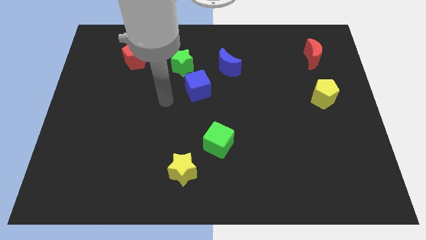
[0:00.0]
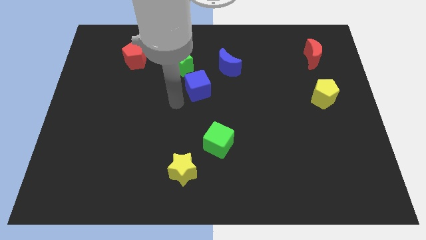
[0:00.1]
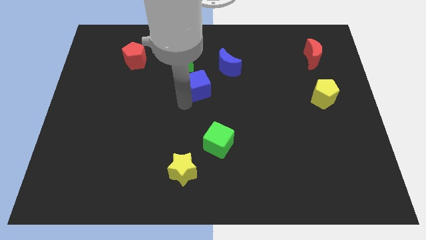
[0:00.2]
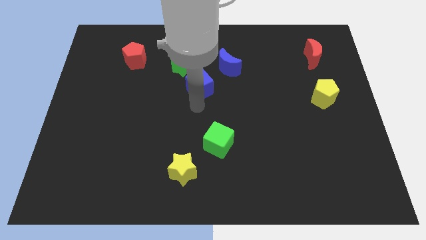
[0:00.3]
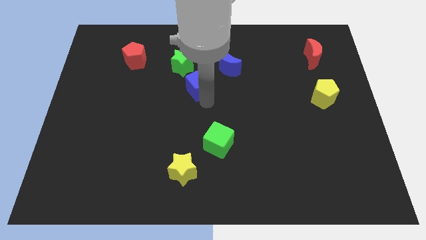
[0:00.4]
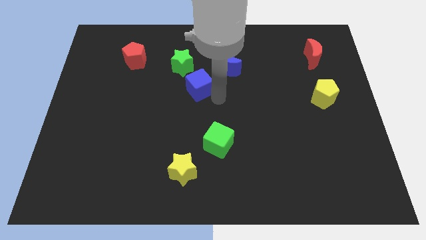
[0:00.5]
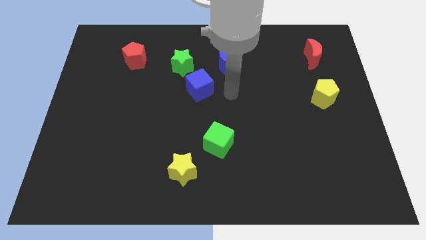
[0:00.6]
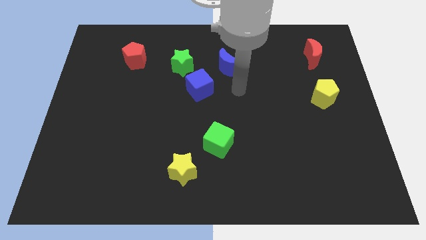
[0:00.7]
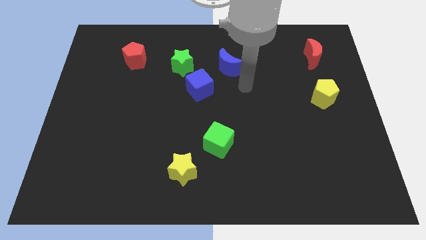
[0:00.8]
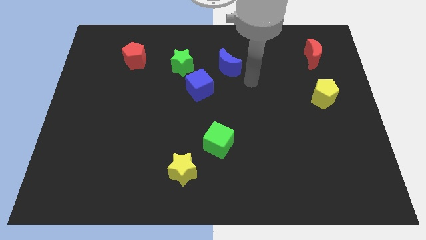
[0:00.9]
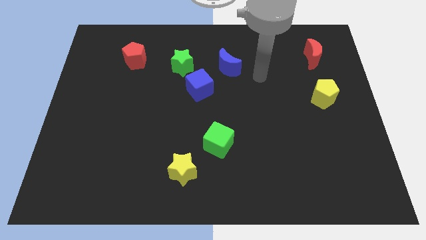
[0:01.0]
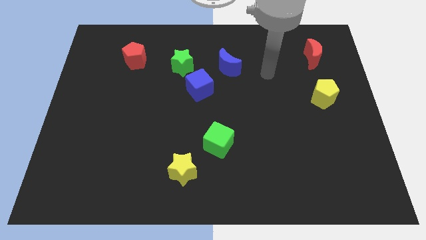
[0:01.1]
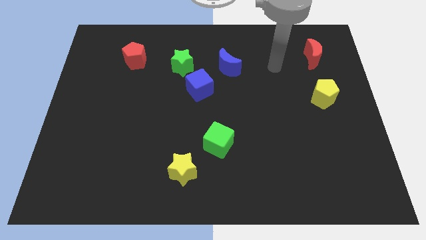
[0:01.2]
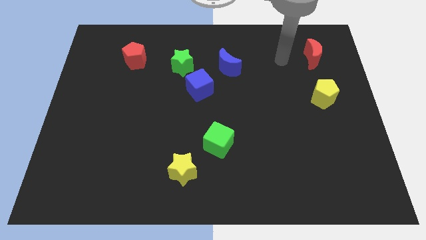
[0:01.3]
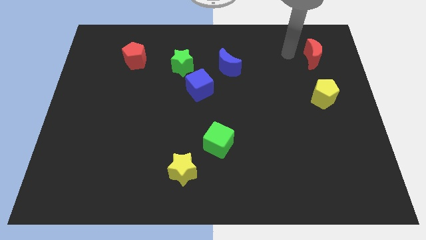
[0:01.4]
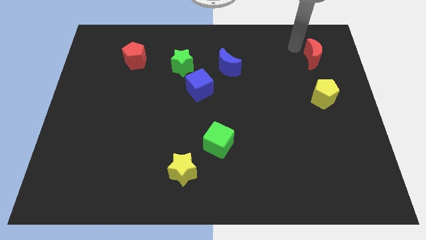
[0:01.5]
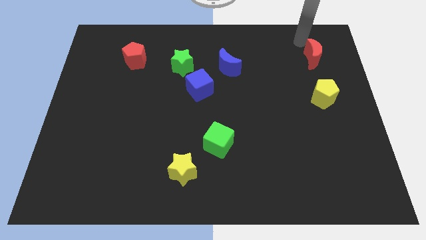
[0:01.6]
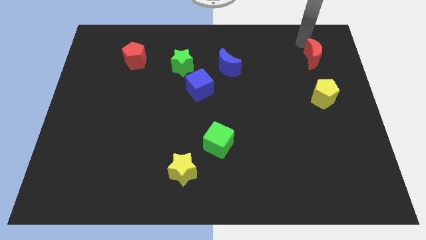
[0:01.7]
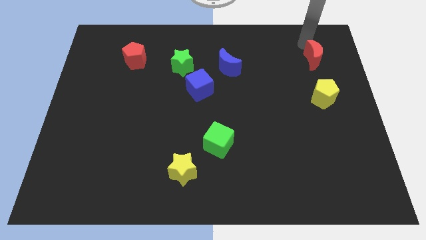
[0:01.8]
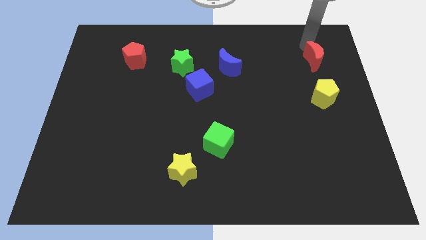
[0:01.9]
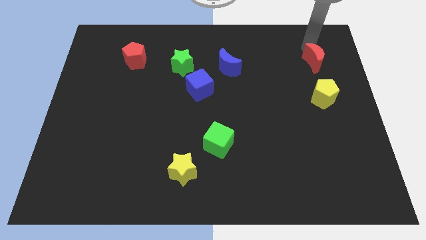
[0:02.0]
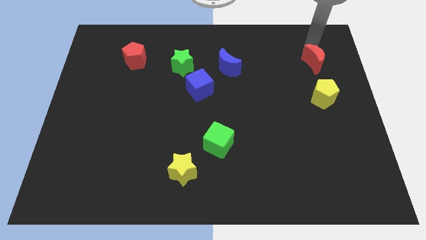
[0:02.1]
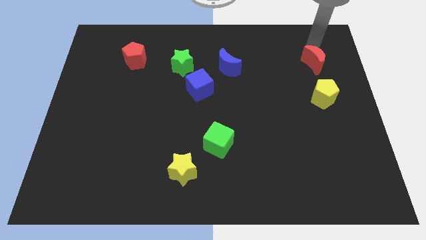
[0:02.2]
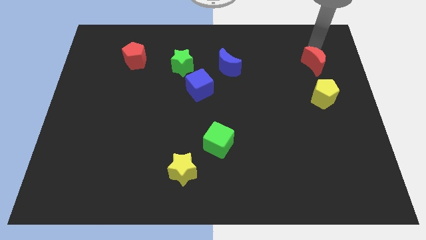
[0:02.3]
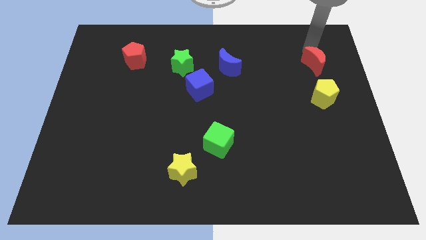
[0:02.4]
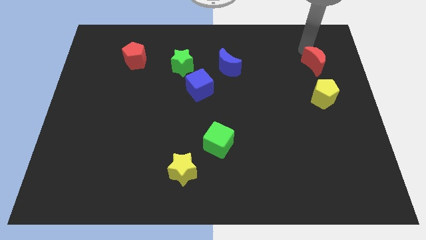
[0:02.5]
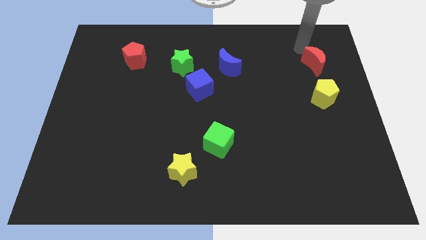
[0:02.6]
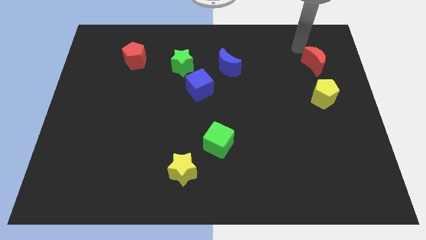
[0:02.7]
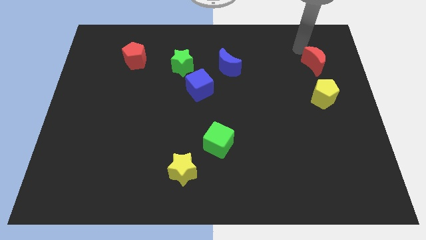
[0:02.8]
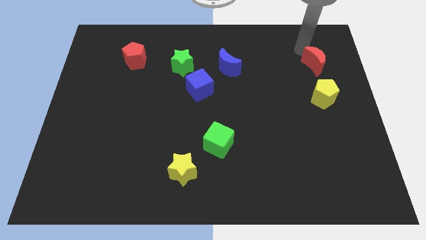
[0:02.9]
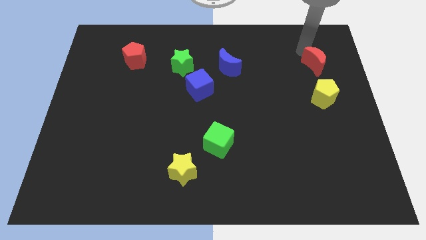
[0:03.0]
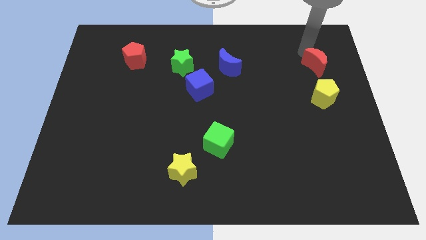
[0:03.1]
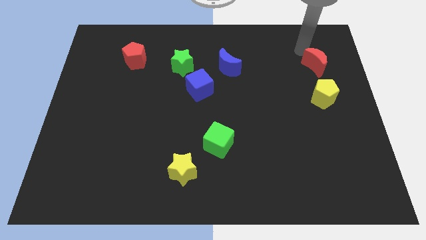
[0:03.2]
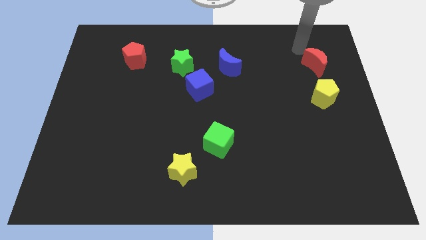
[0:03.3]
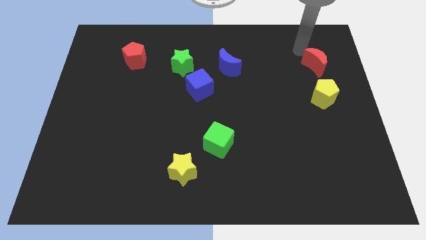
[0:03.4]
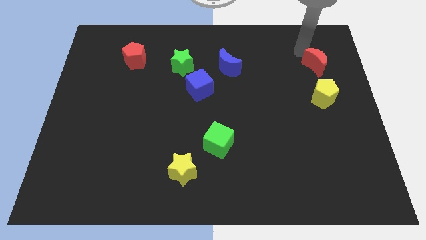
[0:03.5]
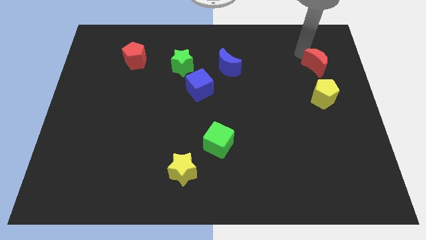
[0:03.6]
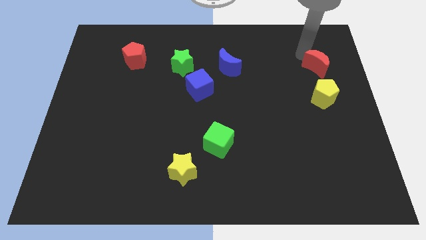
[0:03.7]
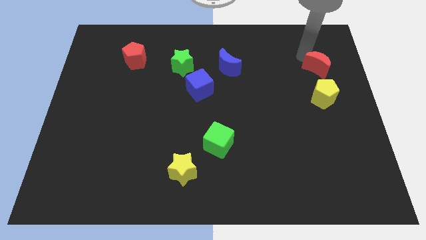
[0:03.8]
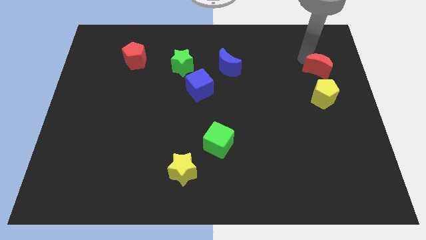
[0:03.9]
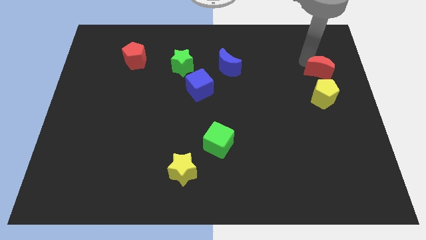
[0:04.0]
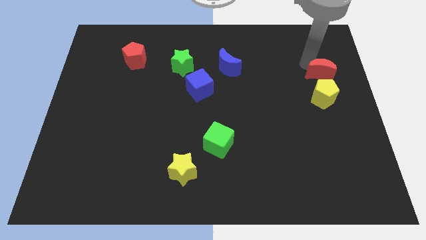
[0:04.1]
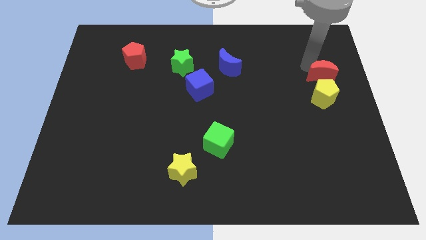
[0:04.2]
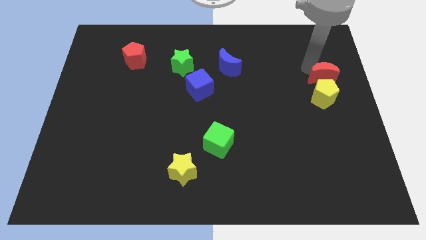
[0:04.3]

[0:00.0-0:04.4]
slide the red moon downwards a bit

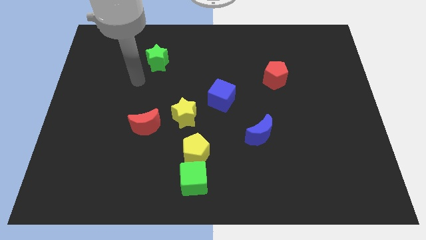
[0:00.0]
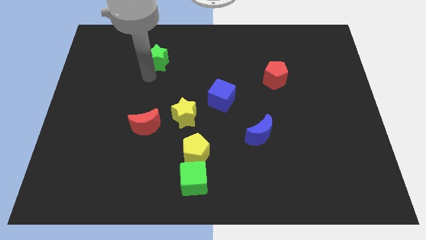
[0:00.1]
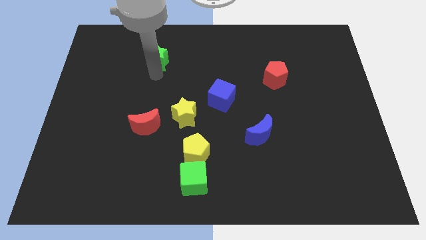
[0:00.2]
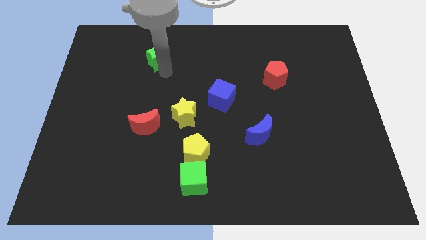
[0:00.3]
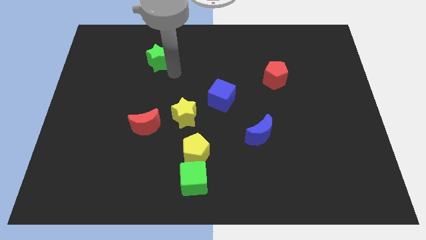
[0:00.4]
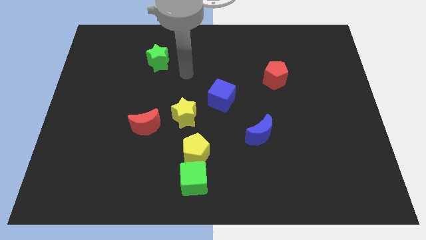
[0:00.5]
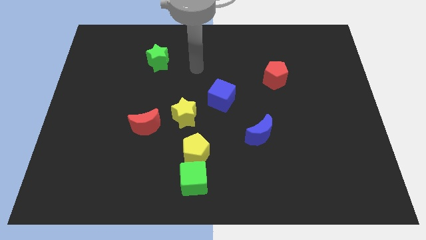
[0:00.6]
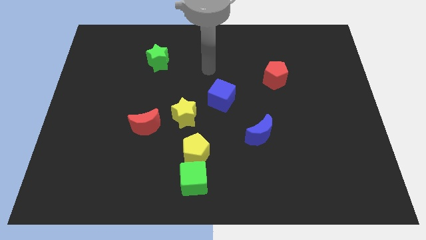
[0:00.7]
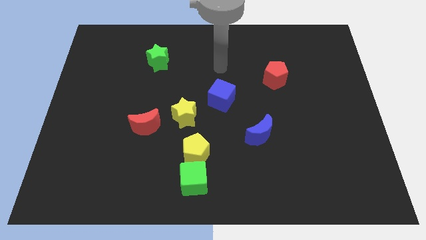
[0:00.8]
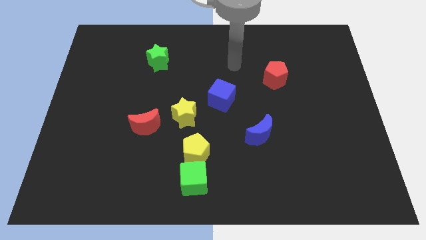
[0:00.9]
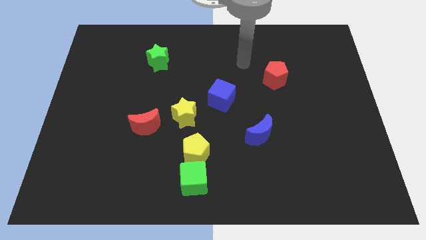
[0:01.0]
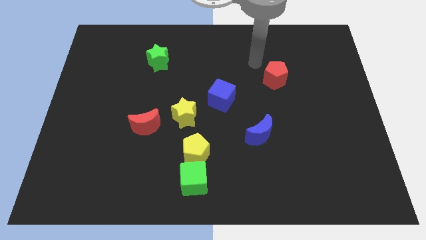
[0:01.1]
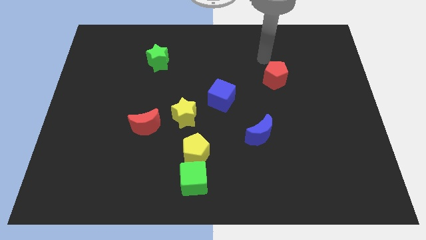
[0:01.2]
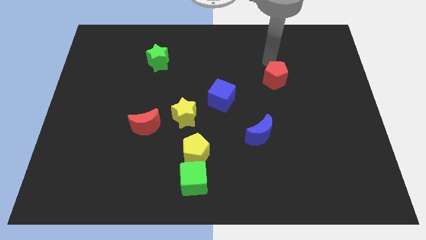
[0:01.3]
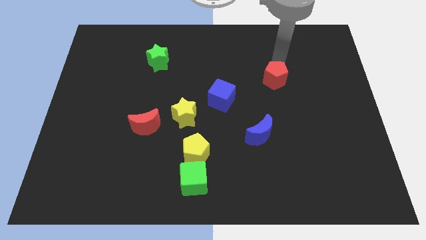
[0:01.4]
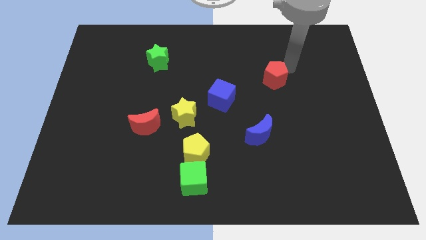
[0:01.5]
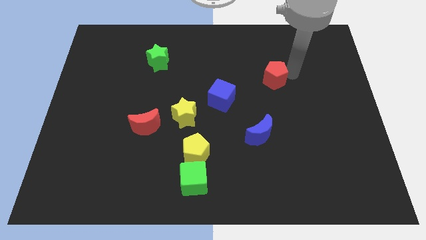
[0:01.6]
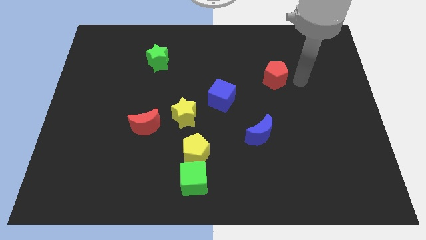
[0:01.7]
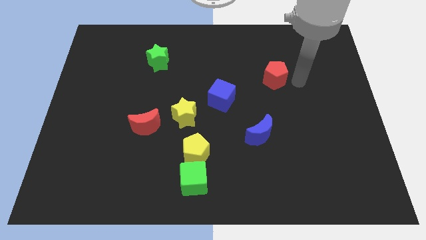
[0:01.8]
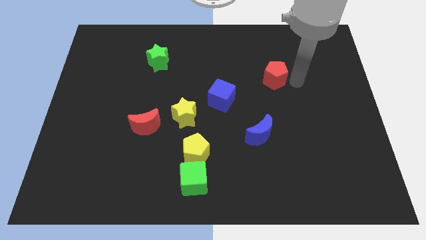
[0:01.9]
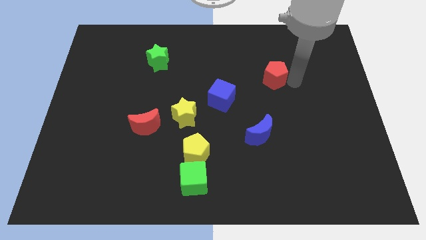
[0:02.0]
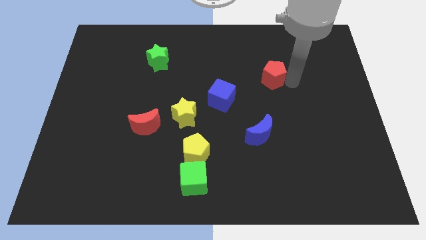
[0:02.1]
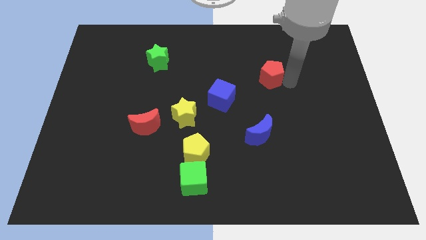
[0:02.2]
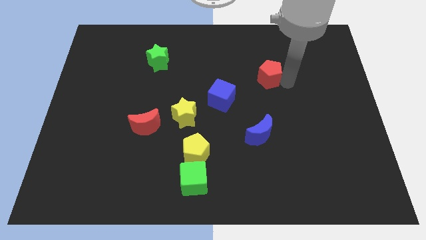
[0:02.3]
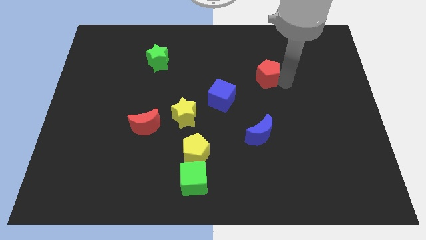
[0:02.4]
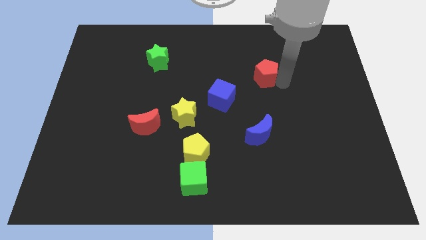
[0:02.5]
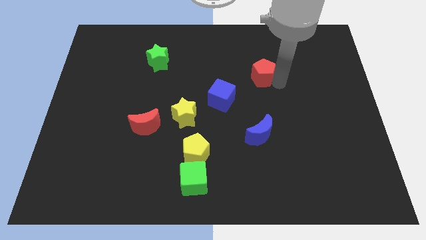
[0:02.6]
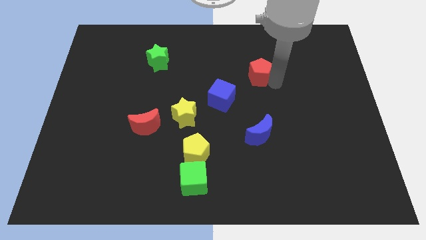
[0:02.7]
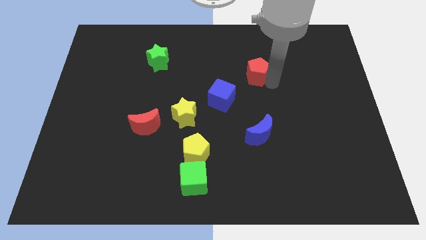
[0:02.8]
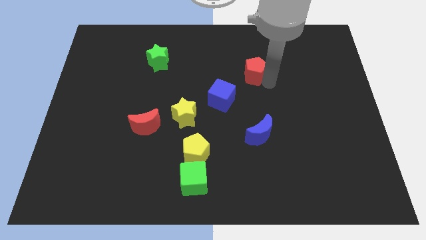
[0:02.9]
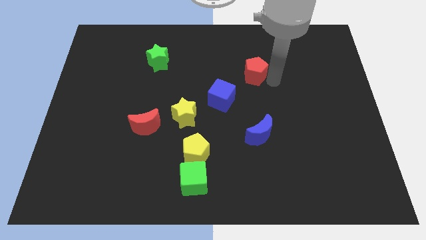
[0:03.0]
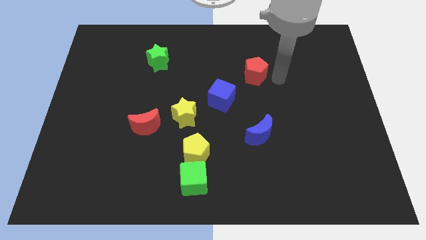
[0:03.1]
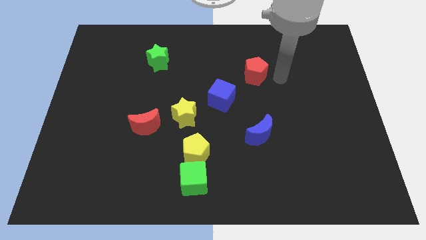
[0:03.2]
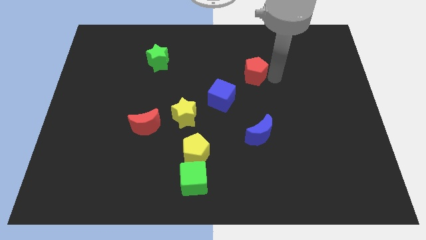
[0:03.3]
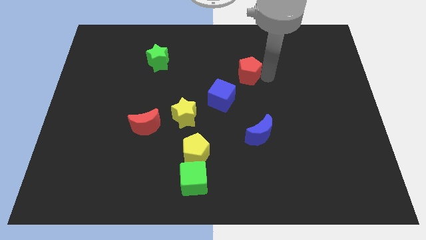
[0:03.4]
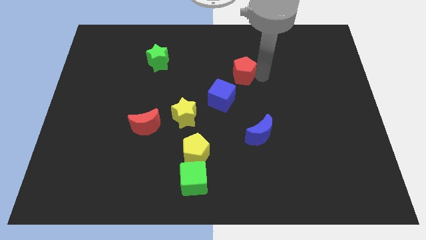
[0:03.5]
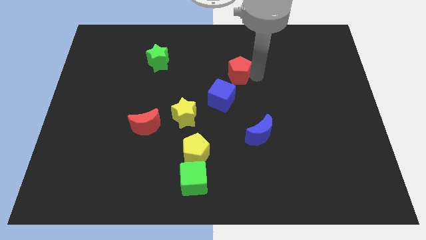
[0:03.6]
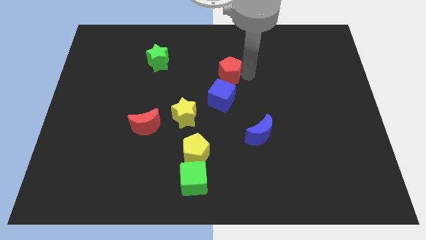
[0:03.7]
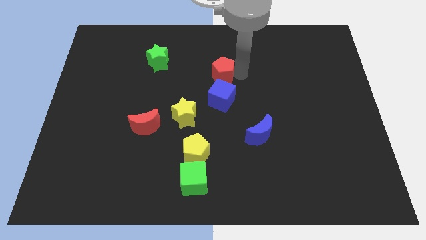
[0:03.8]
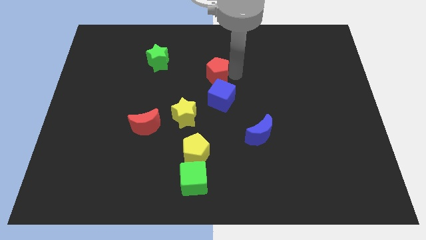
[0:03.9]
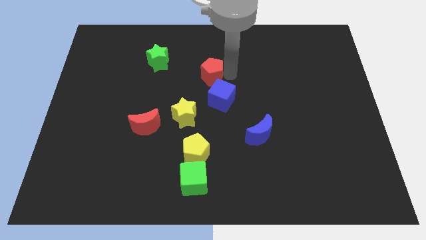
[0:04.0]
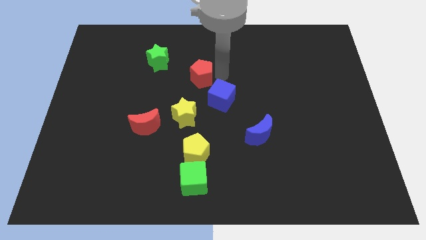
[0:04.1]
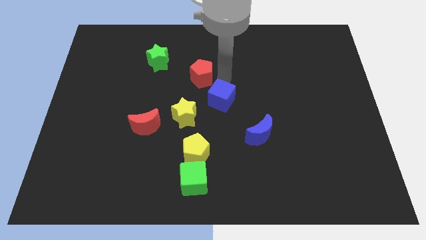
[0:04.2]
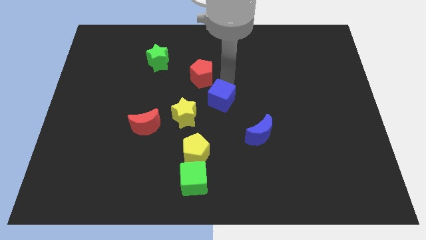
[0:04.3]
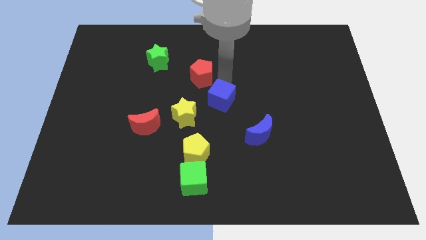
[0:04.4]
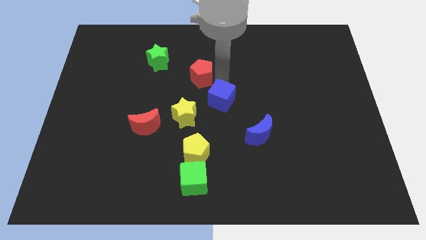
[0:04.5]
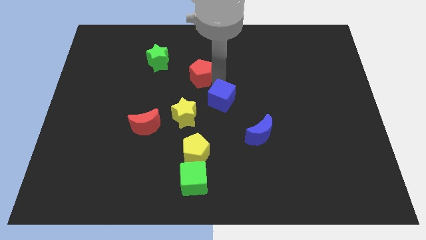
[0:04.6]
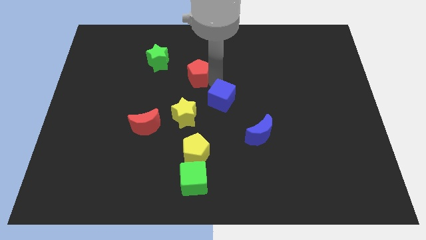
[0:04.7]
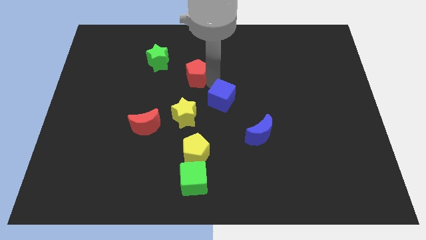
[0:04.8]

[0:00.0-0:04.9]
slide the red pentagon left
